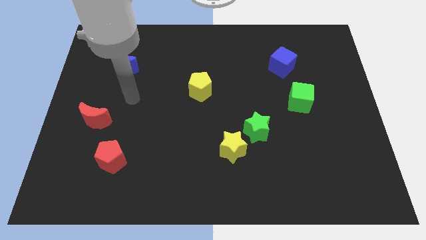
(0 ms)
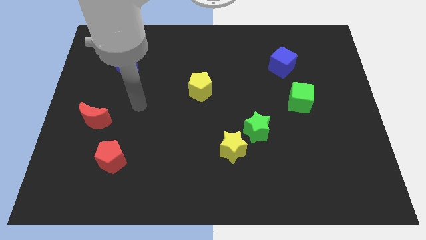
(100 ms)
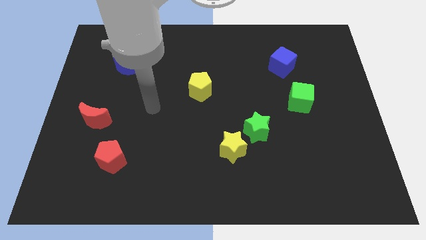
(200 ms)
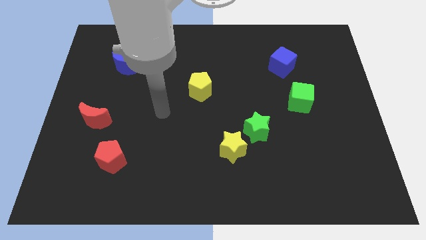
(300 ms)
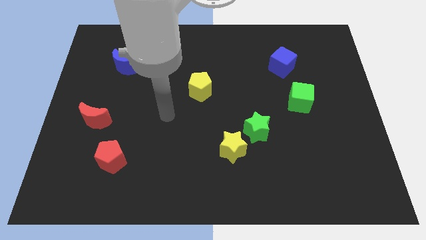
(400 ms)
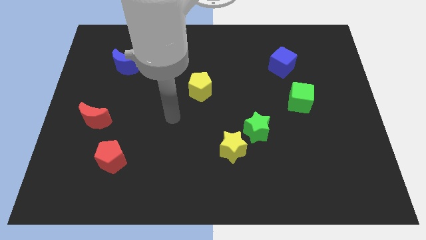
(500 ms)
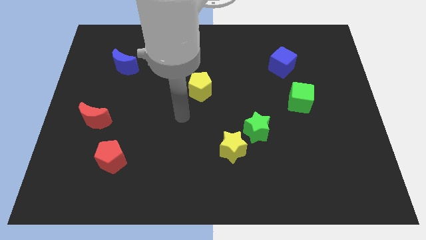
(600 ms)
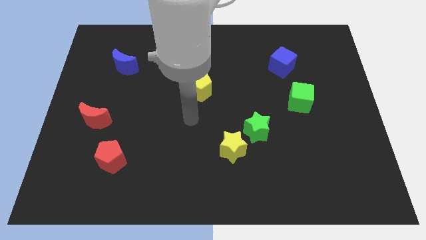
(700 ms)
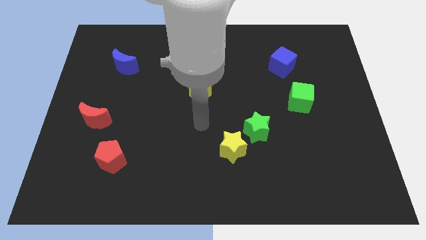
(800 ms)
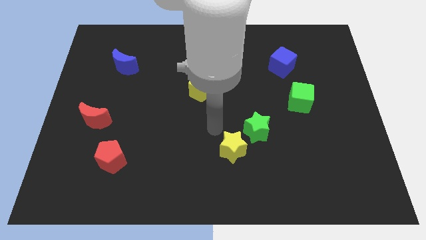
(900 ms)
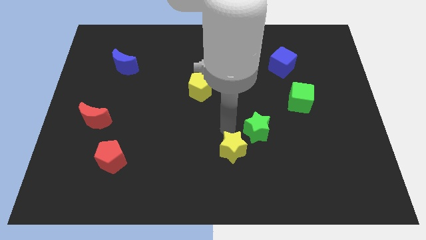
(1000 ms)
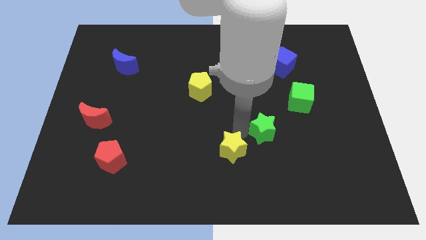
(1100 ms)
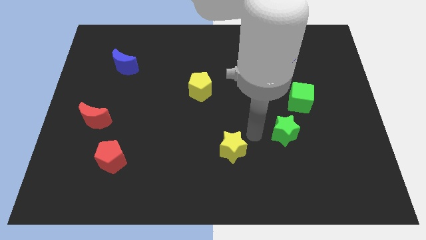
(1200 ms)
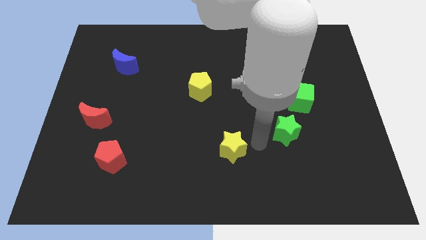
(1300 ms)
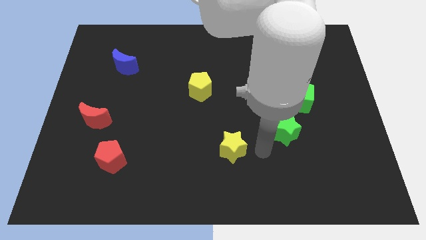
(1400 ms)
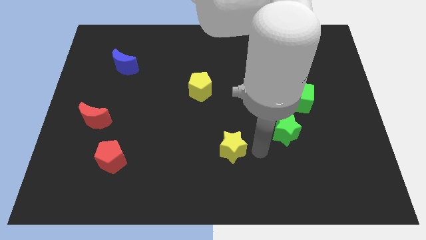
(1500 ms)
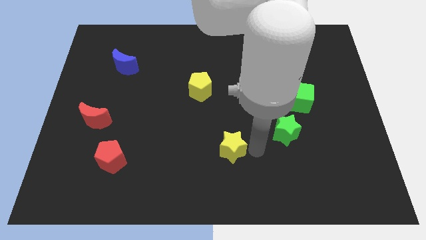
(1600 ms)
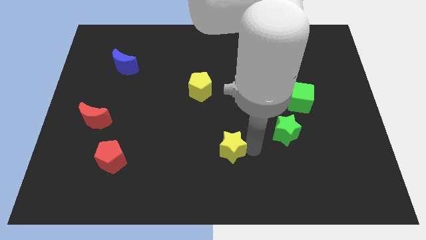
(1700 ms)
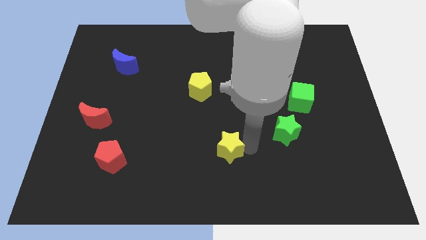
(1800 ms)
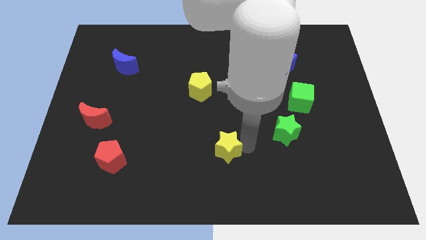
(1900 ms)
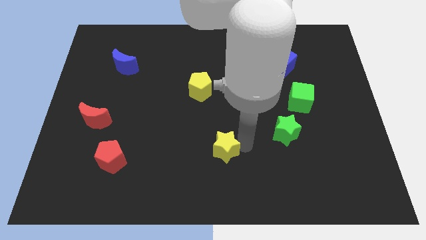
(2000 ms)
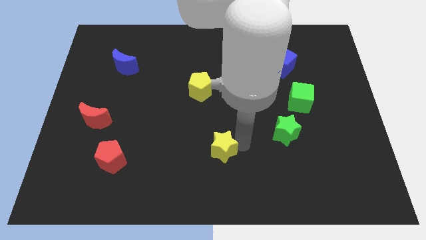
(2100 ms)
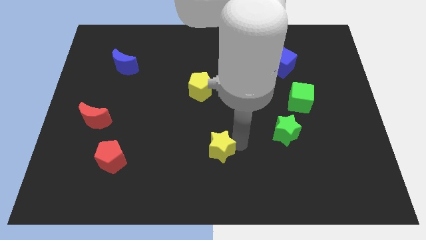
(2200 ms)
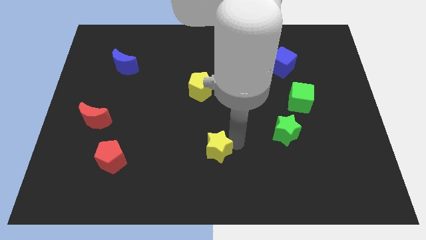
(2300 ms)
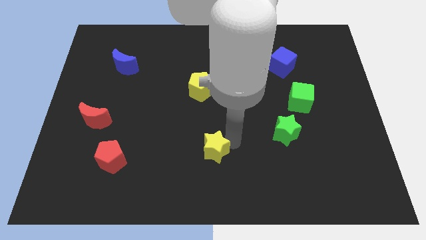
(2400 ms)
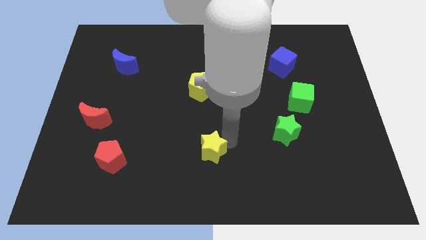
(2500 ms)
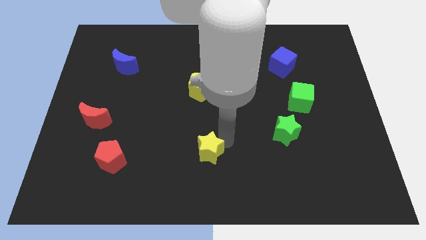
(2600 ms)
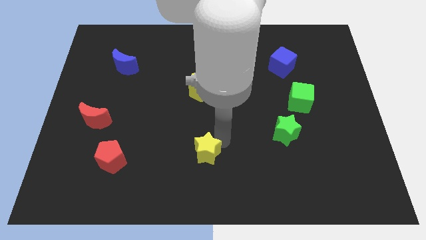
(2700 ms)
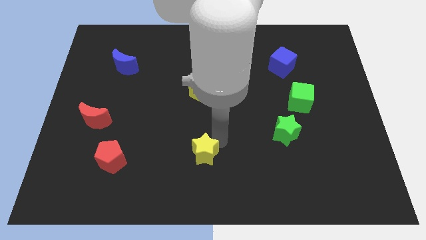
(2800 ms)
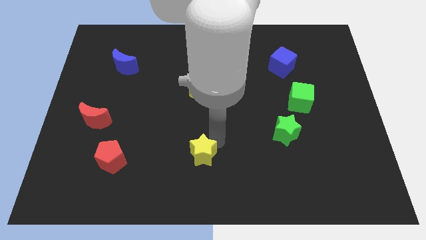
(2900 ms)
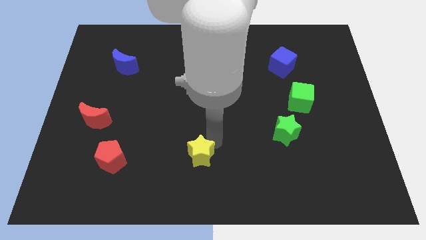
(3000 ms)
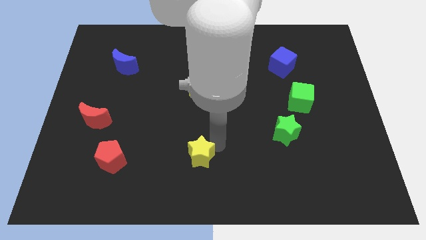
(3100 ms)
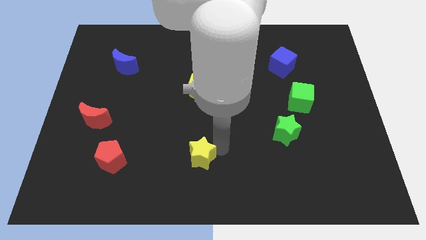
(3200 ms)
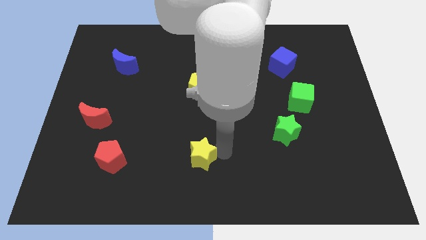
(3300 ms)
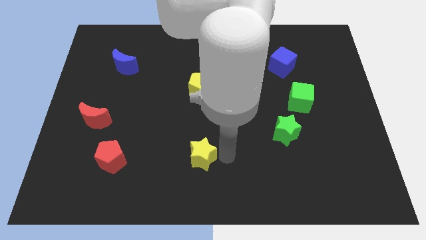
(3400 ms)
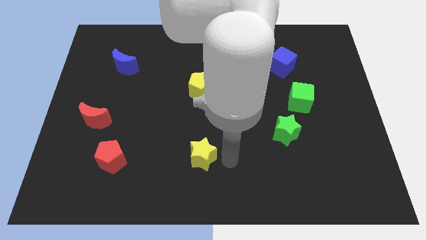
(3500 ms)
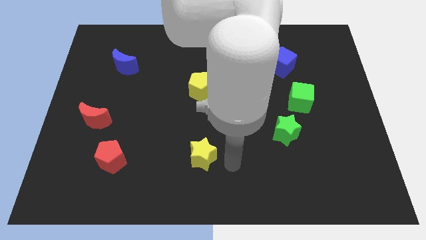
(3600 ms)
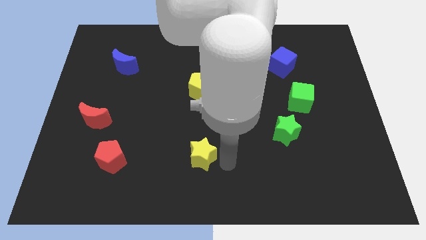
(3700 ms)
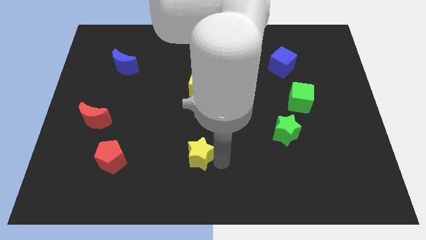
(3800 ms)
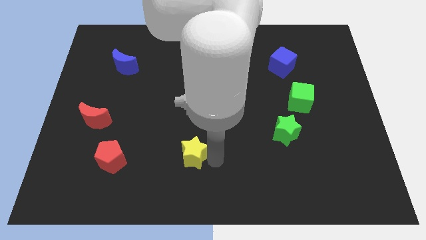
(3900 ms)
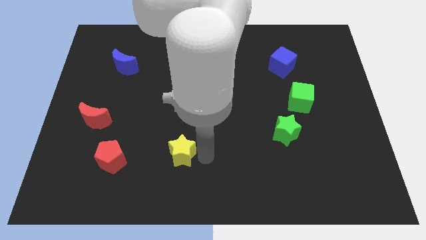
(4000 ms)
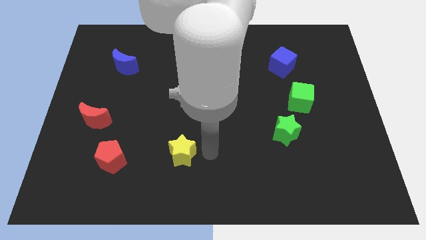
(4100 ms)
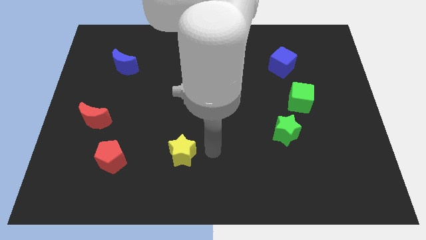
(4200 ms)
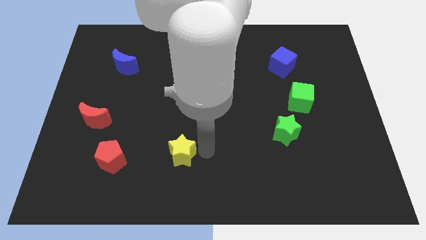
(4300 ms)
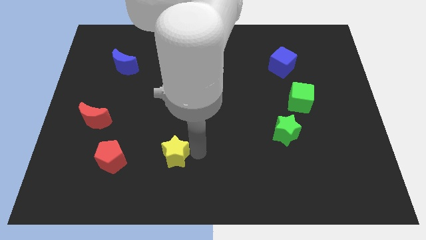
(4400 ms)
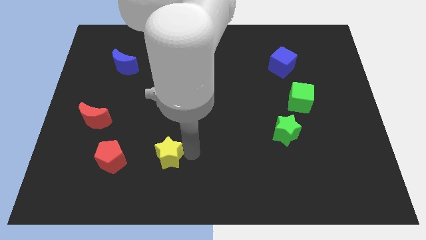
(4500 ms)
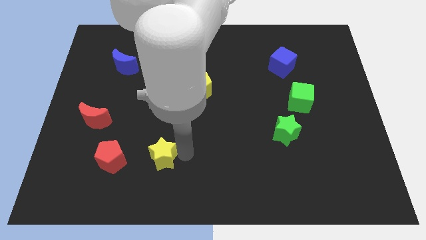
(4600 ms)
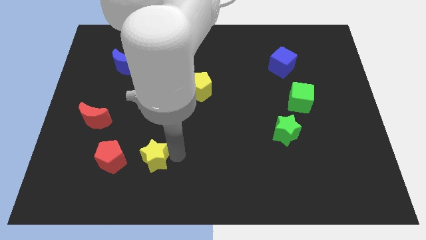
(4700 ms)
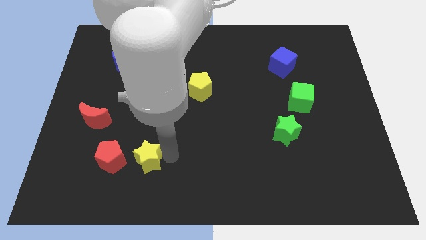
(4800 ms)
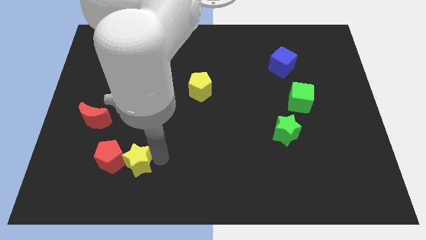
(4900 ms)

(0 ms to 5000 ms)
push the yellow star close to the red pentagon

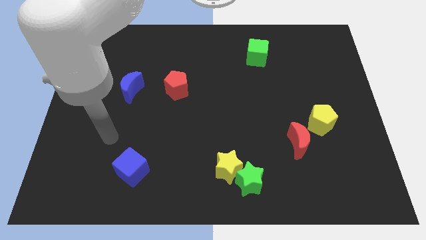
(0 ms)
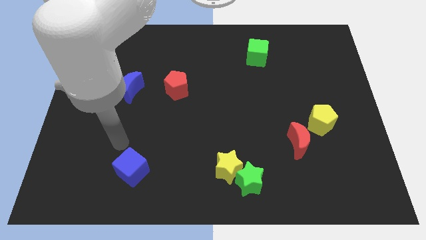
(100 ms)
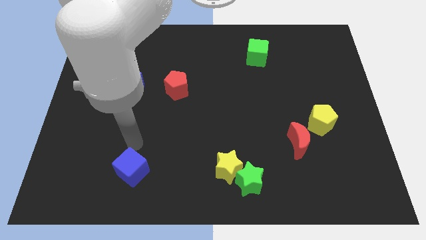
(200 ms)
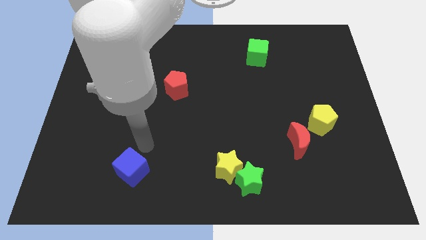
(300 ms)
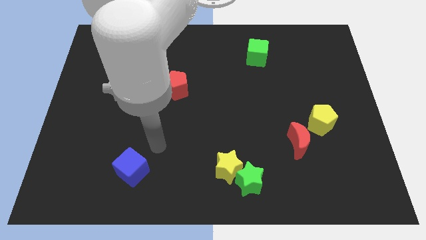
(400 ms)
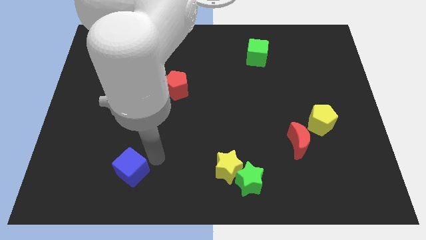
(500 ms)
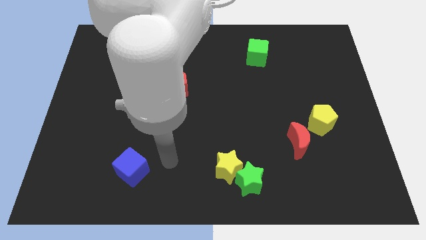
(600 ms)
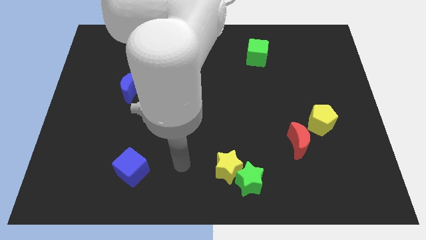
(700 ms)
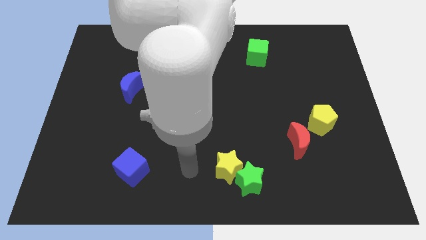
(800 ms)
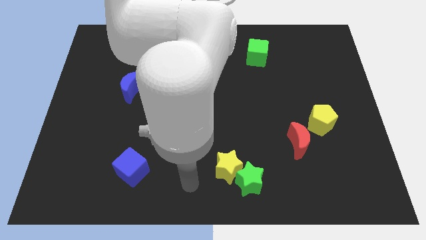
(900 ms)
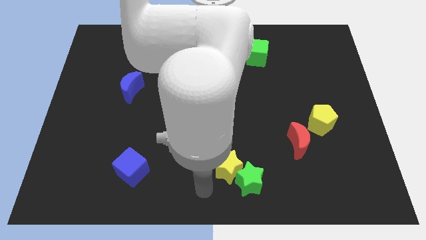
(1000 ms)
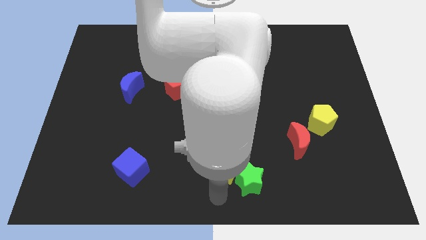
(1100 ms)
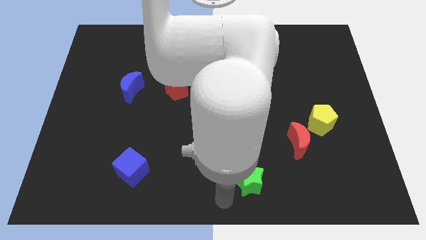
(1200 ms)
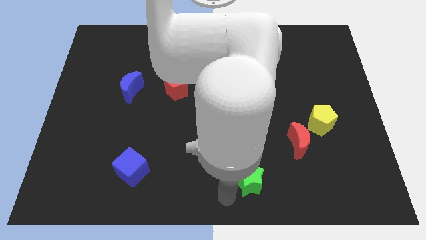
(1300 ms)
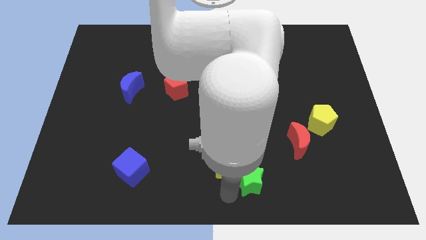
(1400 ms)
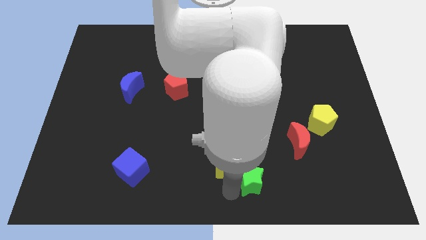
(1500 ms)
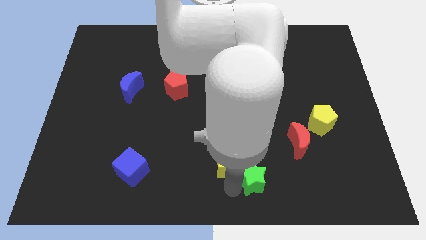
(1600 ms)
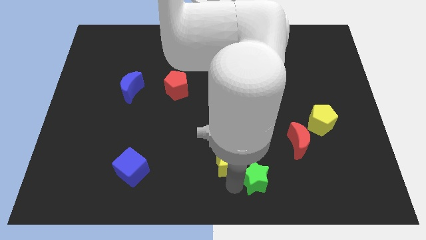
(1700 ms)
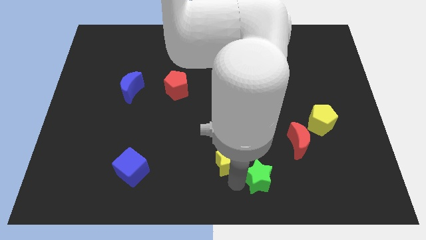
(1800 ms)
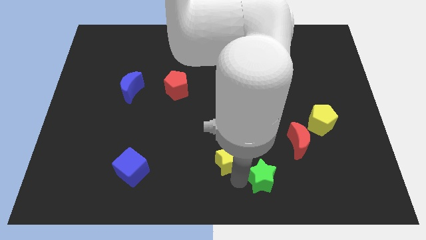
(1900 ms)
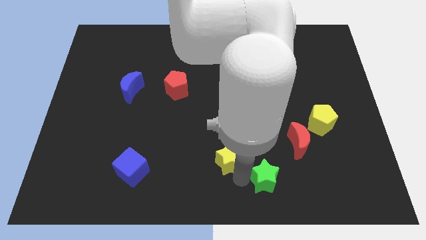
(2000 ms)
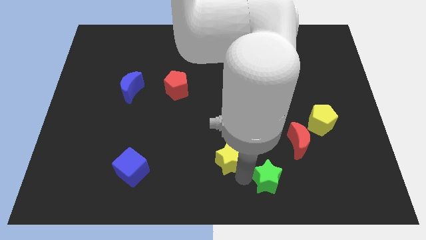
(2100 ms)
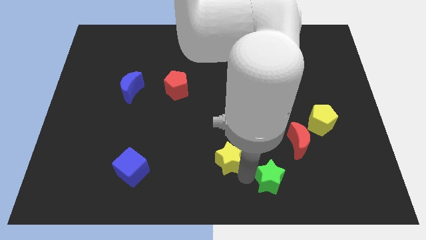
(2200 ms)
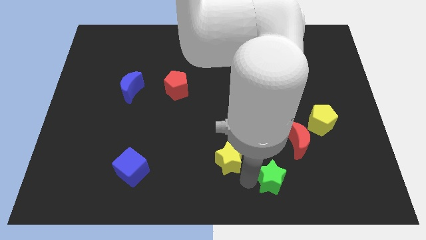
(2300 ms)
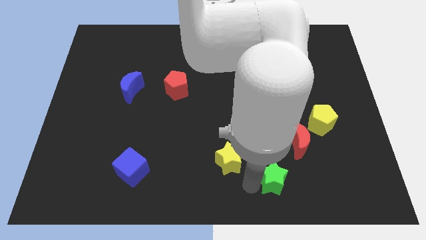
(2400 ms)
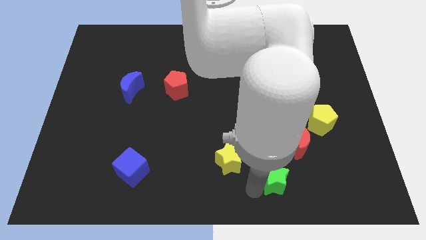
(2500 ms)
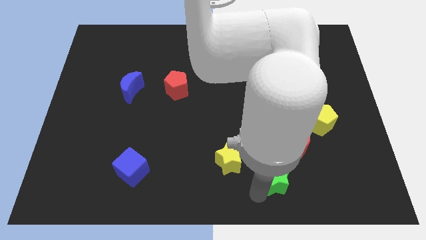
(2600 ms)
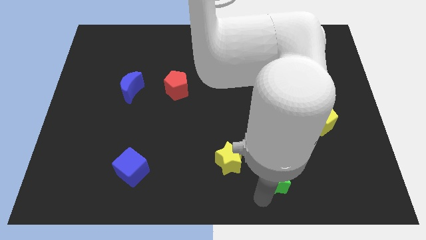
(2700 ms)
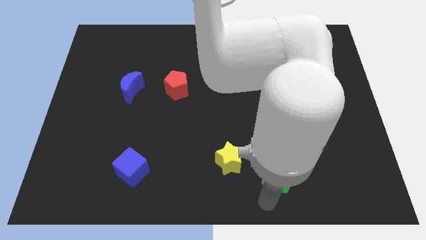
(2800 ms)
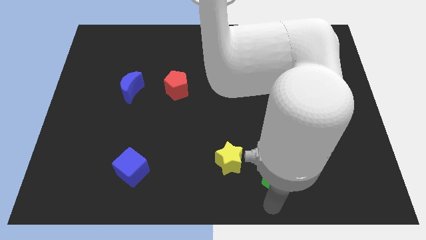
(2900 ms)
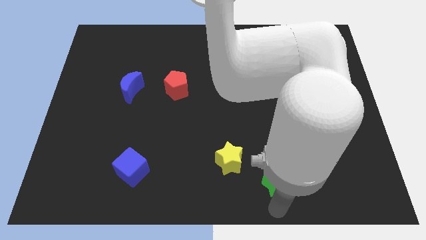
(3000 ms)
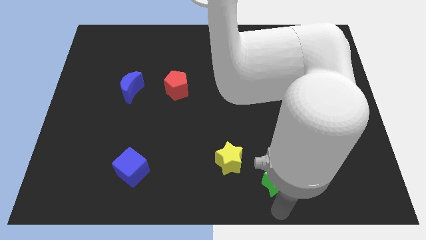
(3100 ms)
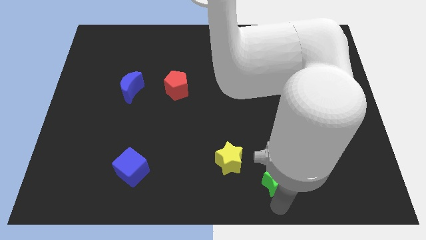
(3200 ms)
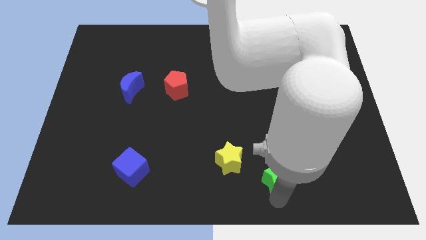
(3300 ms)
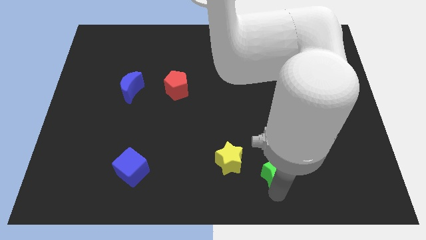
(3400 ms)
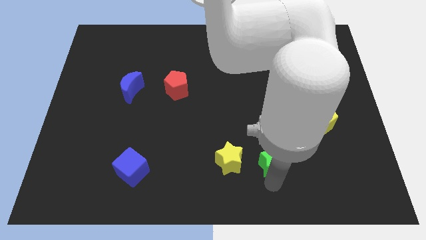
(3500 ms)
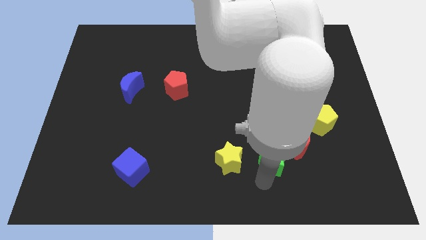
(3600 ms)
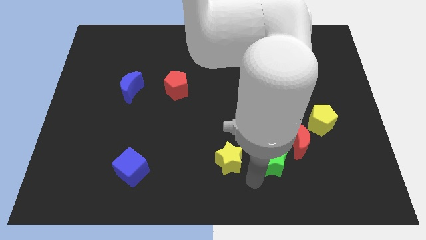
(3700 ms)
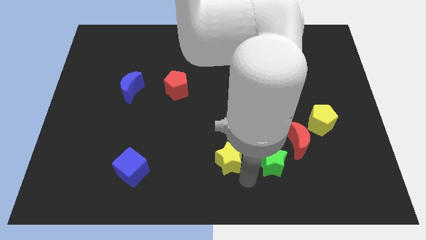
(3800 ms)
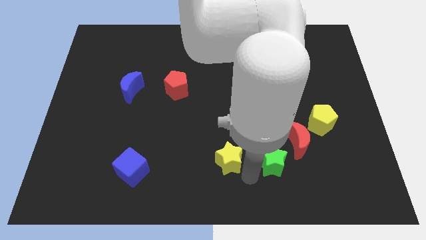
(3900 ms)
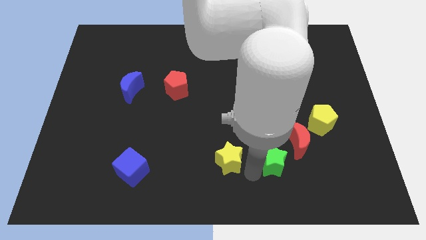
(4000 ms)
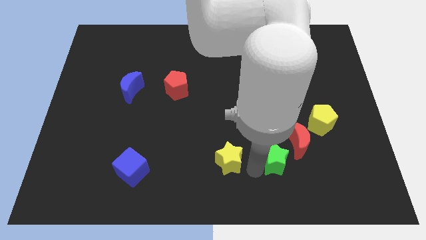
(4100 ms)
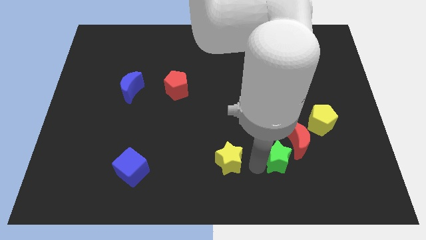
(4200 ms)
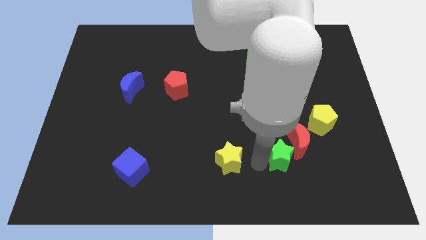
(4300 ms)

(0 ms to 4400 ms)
move the green star towards the red moon
